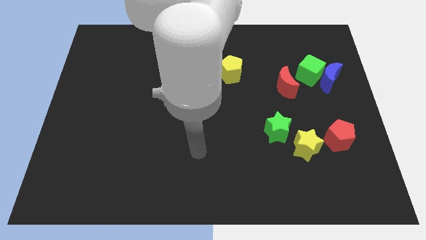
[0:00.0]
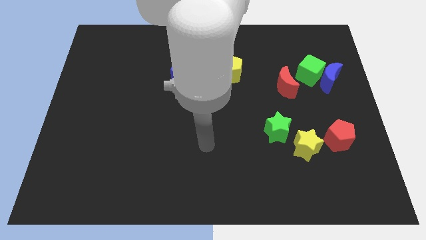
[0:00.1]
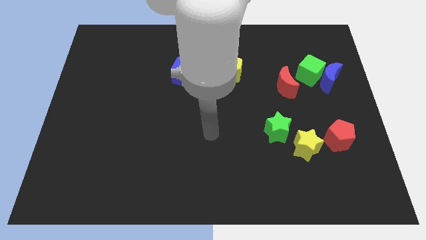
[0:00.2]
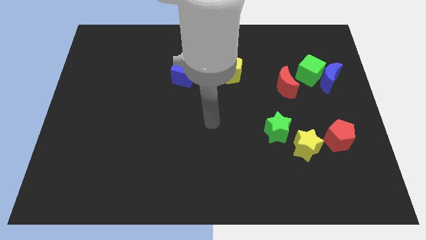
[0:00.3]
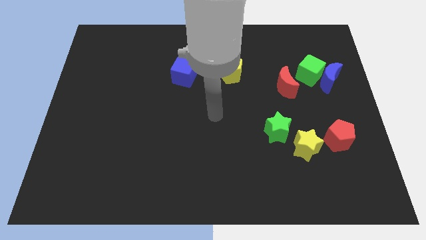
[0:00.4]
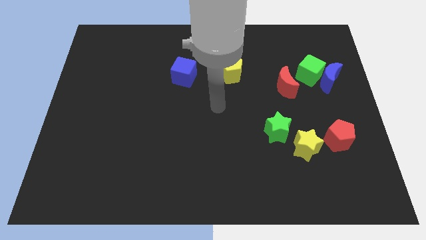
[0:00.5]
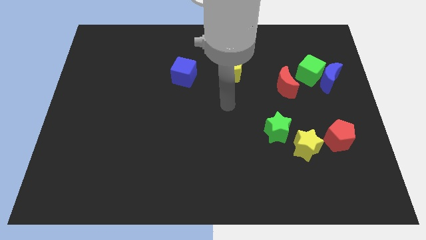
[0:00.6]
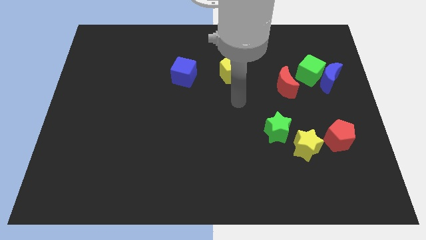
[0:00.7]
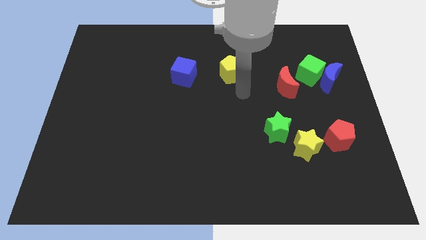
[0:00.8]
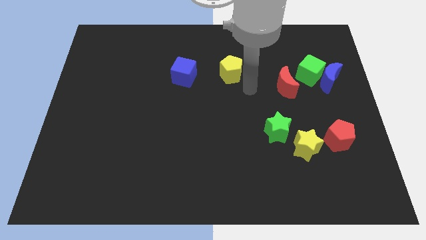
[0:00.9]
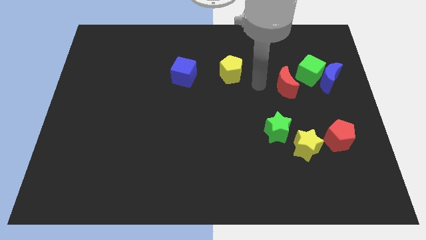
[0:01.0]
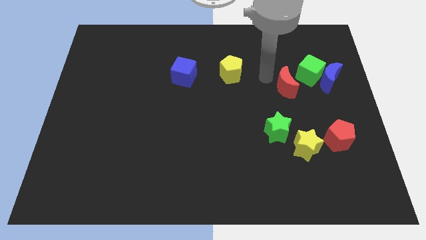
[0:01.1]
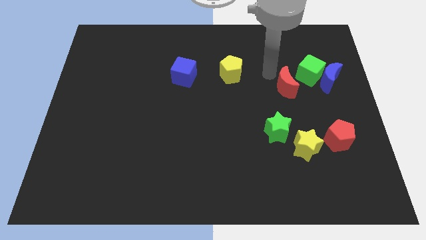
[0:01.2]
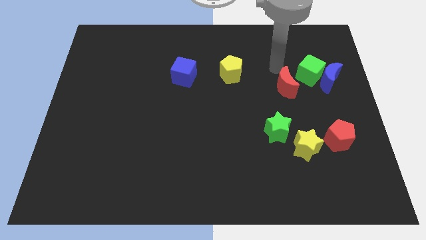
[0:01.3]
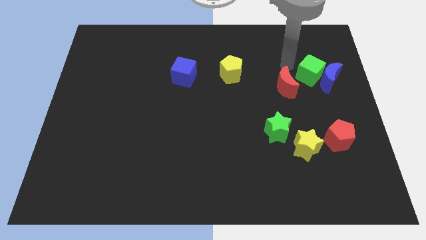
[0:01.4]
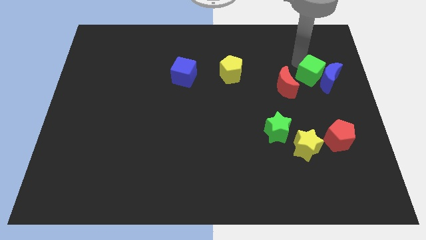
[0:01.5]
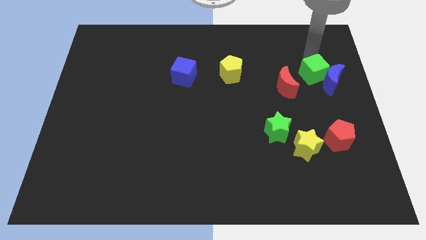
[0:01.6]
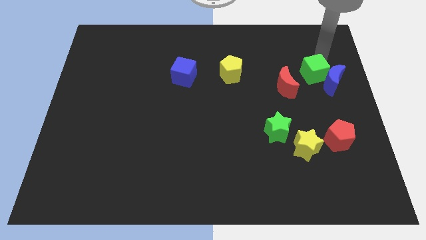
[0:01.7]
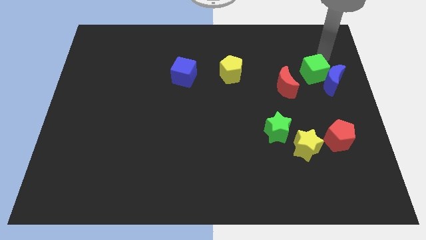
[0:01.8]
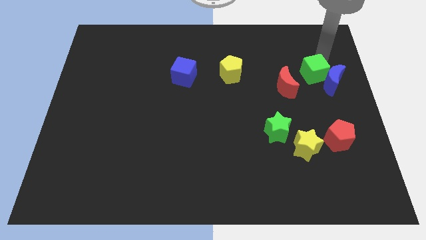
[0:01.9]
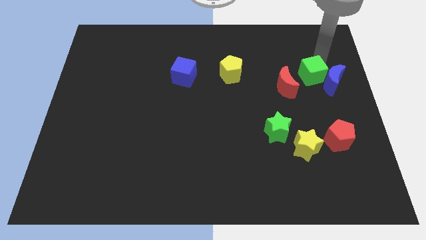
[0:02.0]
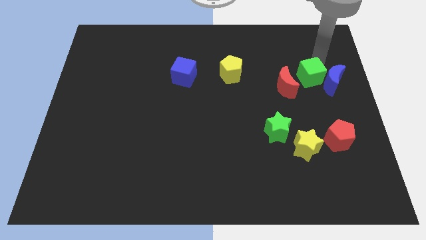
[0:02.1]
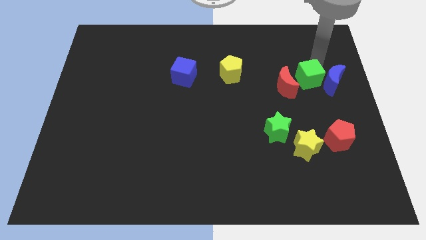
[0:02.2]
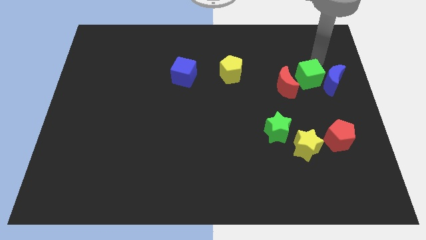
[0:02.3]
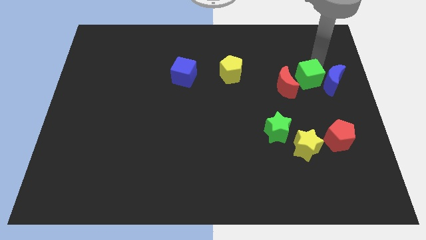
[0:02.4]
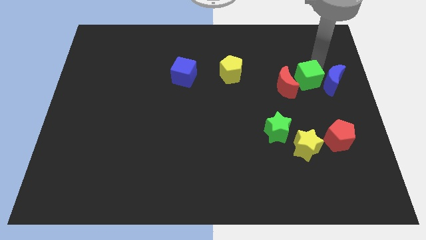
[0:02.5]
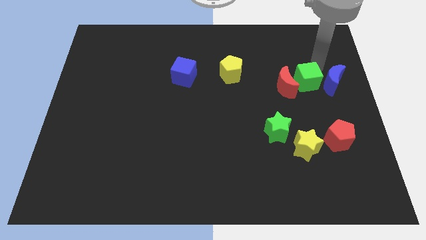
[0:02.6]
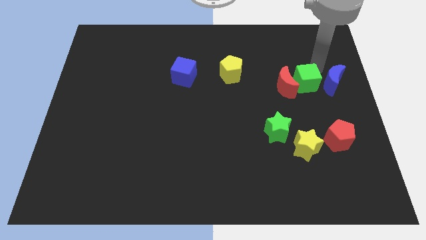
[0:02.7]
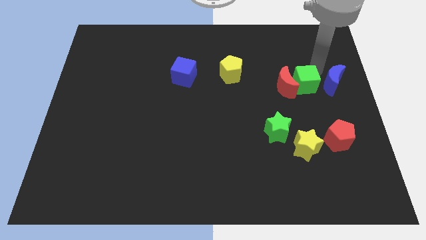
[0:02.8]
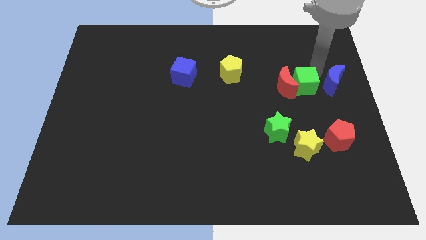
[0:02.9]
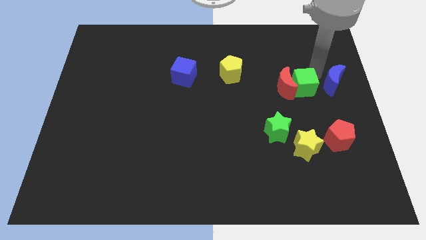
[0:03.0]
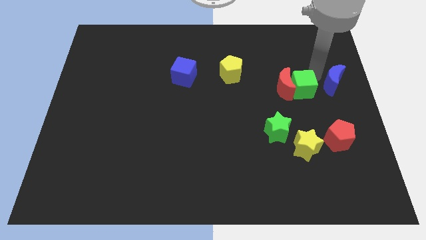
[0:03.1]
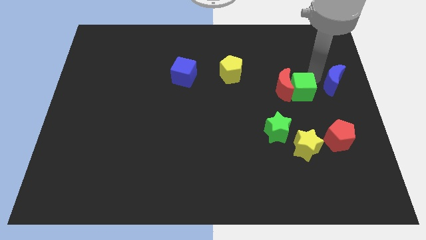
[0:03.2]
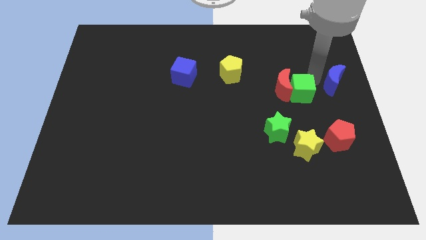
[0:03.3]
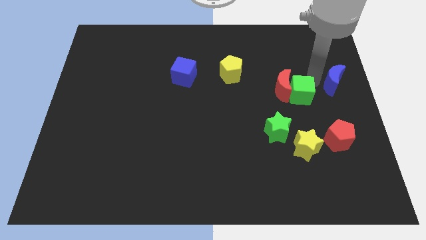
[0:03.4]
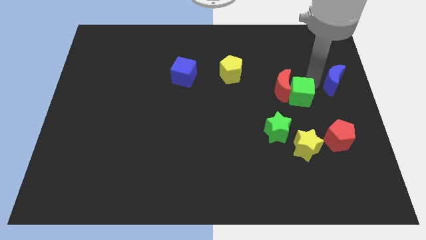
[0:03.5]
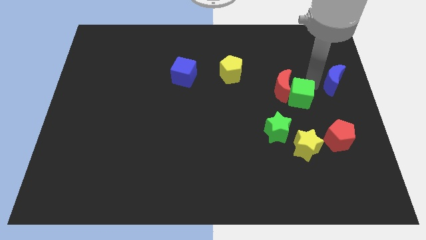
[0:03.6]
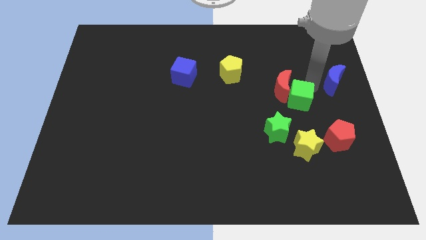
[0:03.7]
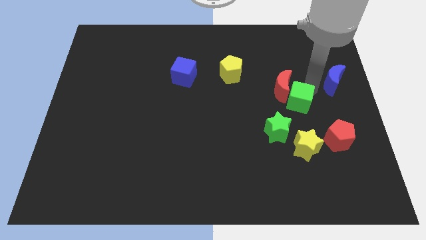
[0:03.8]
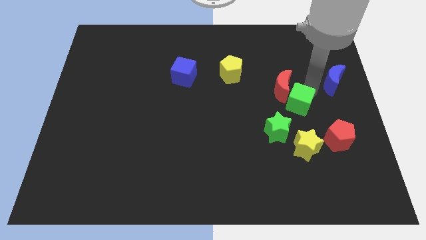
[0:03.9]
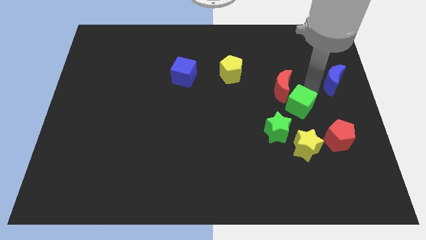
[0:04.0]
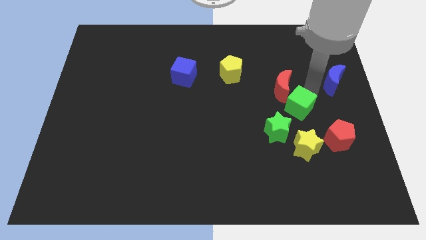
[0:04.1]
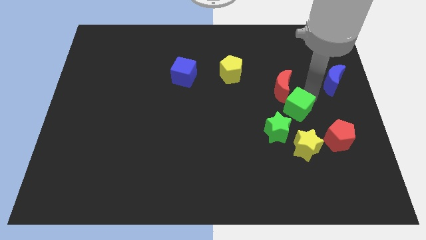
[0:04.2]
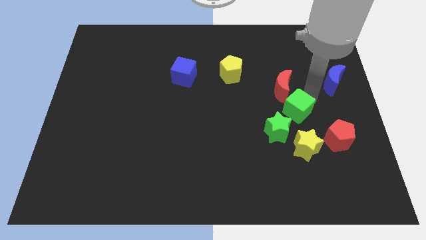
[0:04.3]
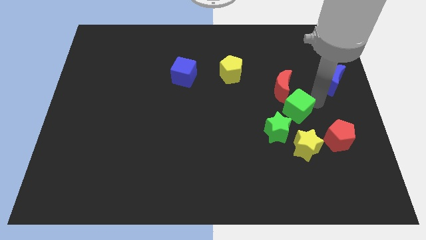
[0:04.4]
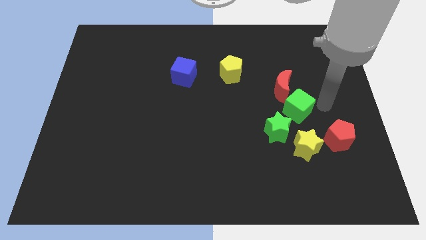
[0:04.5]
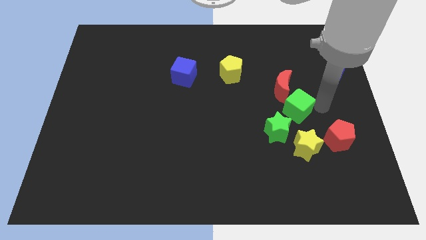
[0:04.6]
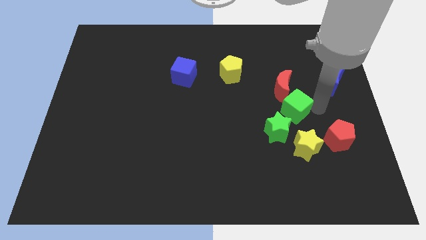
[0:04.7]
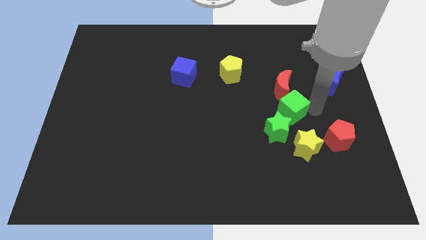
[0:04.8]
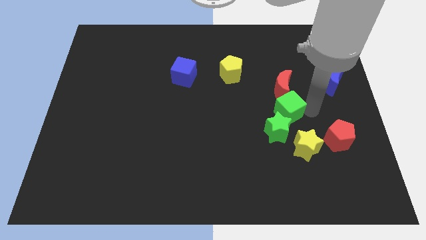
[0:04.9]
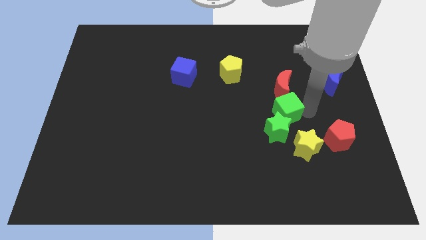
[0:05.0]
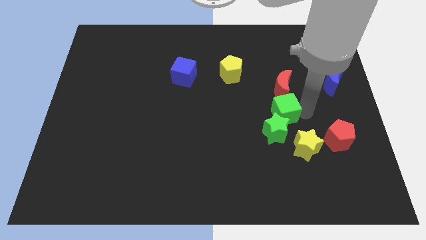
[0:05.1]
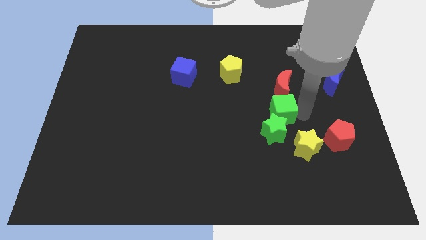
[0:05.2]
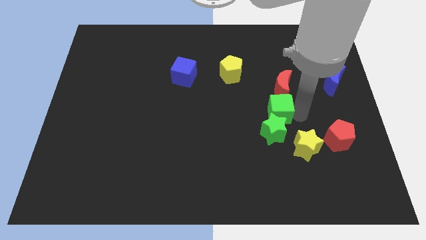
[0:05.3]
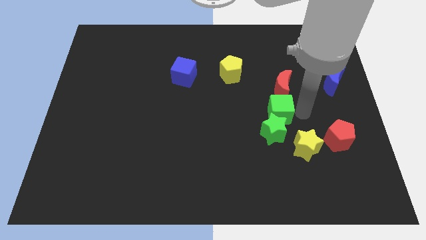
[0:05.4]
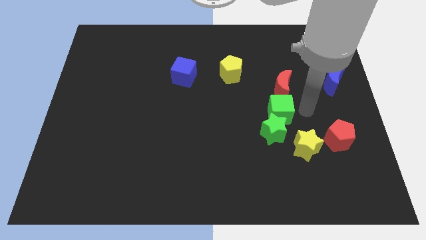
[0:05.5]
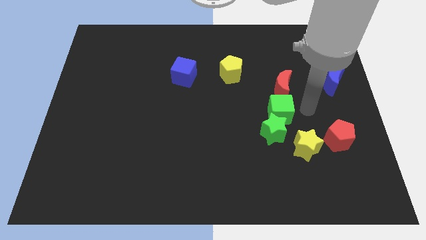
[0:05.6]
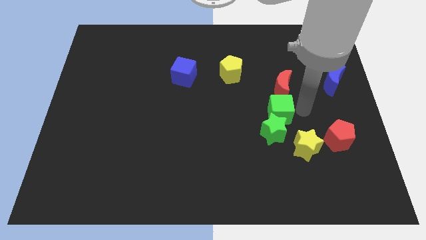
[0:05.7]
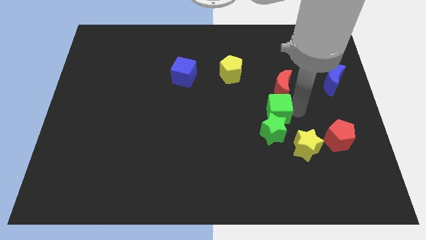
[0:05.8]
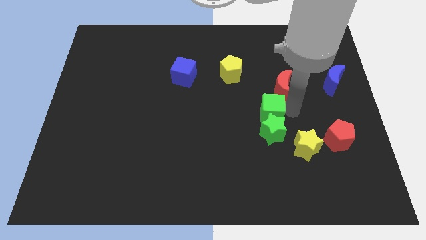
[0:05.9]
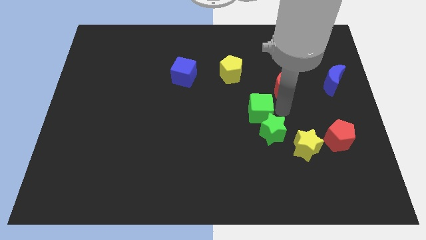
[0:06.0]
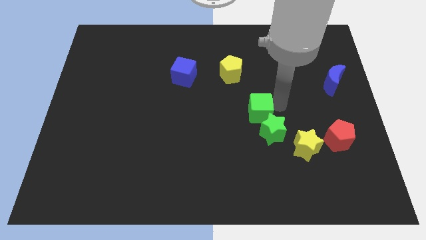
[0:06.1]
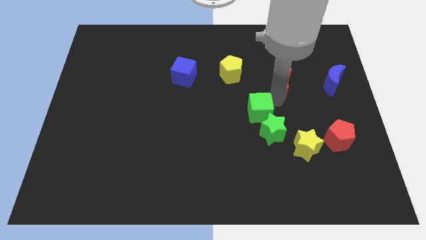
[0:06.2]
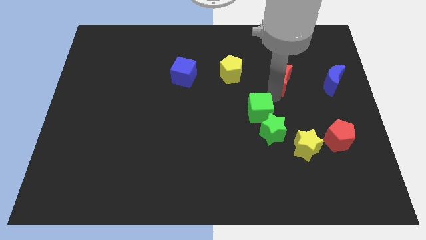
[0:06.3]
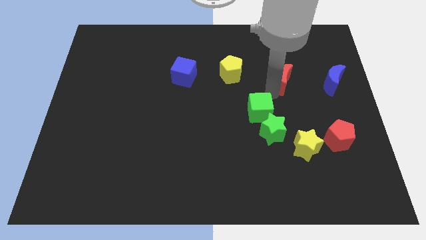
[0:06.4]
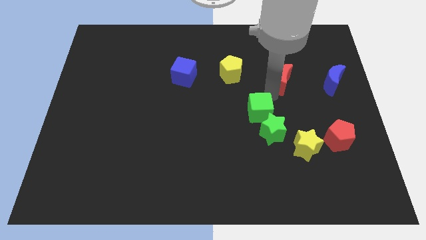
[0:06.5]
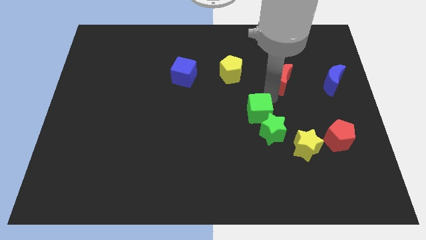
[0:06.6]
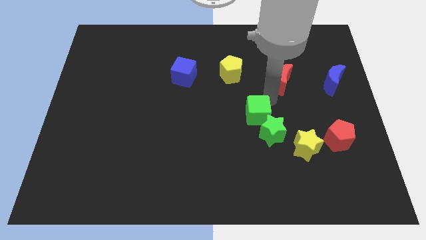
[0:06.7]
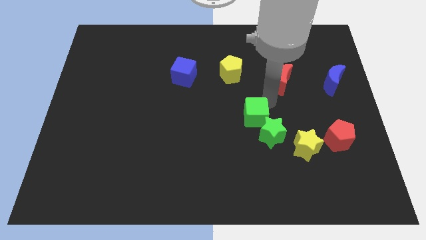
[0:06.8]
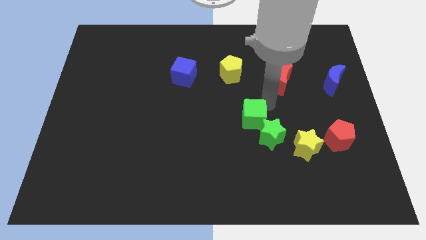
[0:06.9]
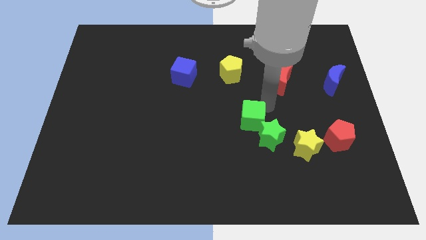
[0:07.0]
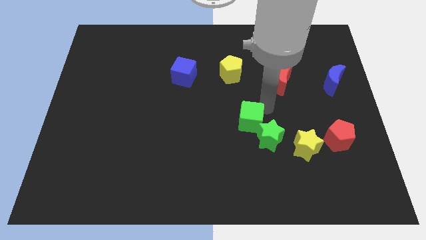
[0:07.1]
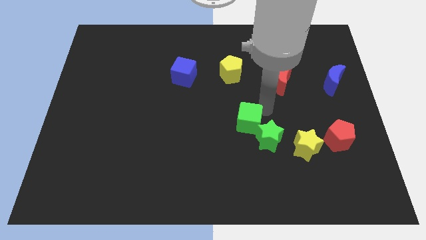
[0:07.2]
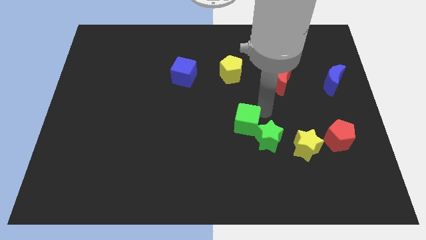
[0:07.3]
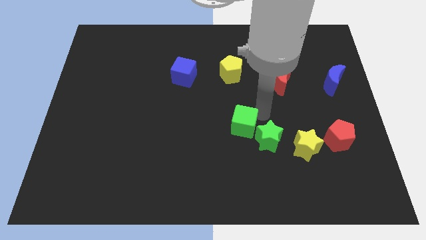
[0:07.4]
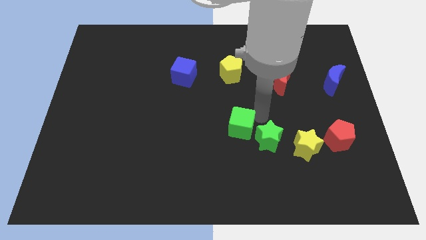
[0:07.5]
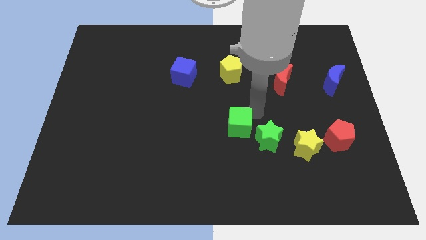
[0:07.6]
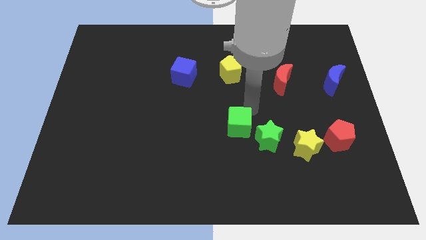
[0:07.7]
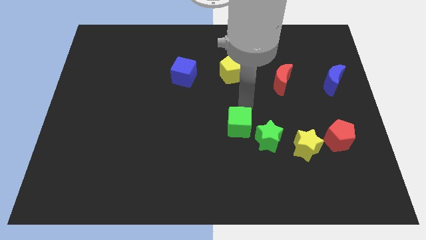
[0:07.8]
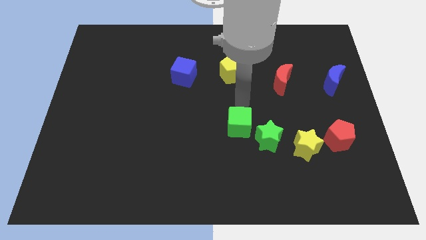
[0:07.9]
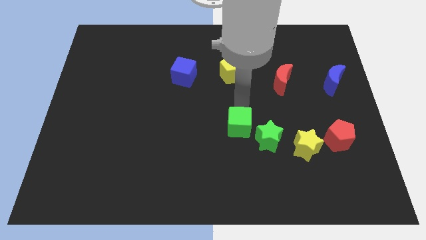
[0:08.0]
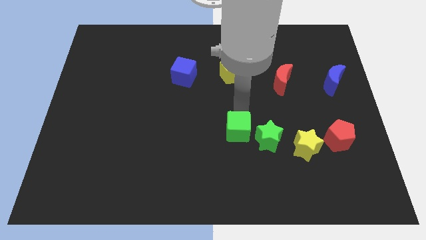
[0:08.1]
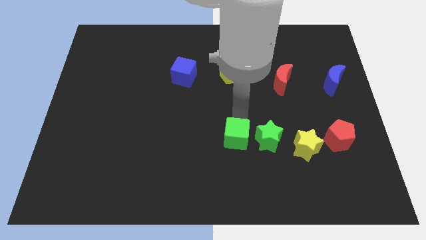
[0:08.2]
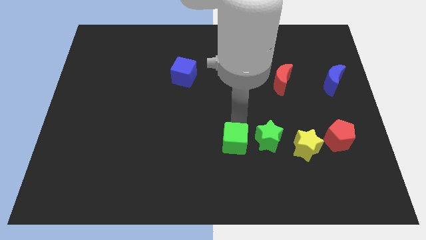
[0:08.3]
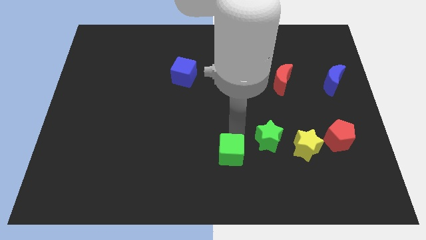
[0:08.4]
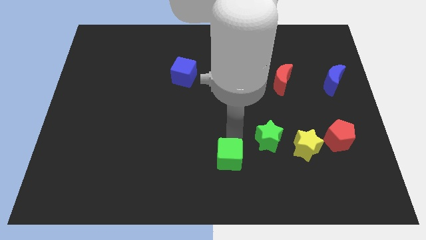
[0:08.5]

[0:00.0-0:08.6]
push the green cube to the bottom side
